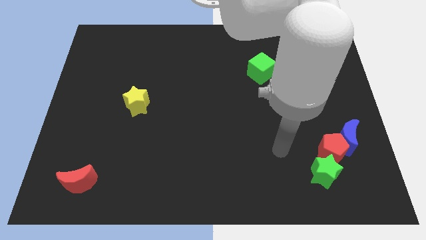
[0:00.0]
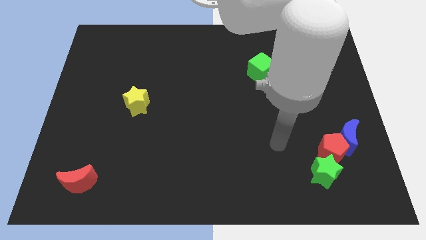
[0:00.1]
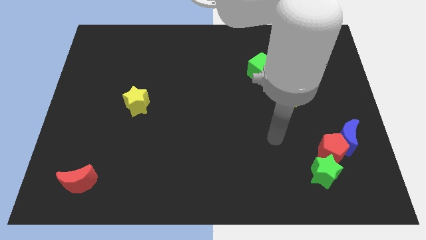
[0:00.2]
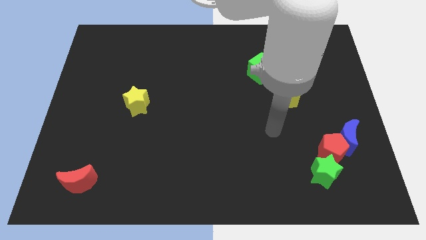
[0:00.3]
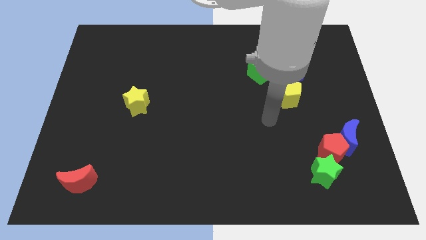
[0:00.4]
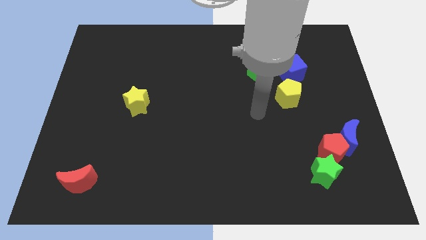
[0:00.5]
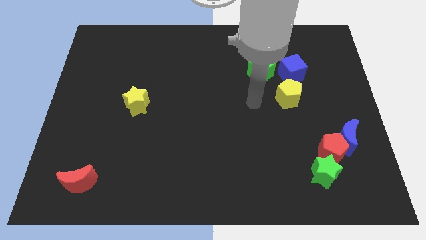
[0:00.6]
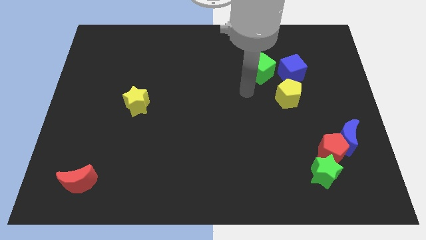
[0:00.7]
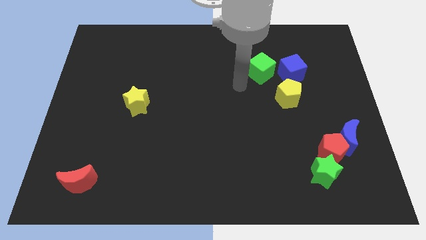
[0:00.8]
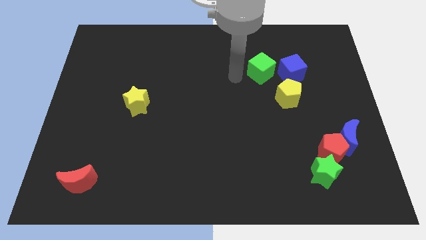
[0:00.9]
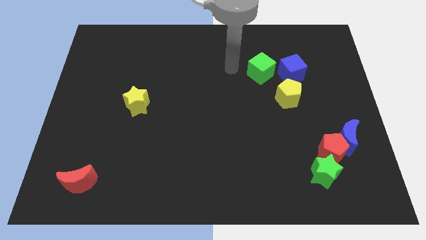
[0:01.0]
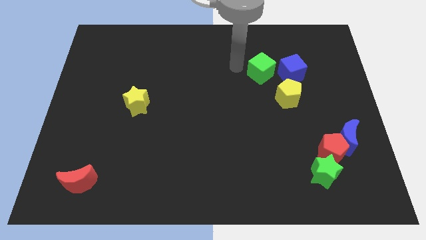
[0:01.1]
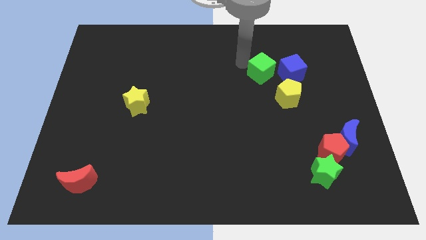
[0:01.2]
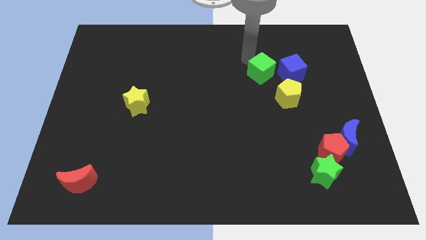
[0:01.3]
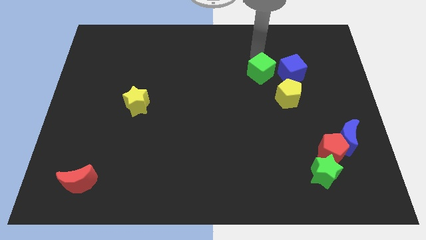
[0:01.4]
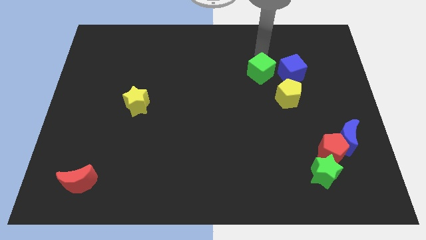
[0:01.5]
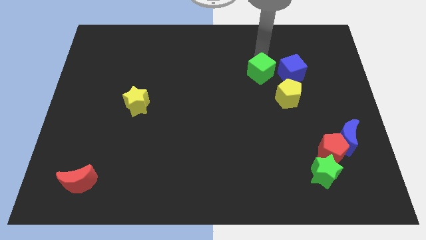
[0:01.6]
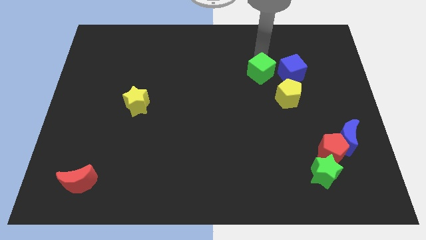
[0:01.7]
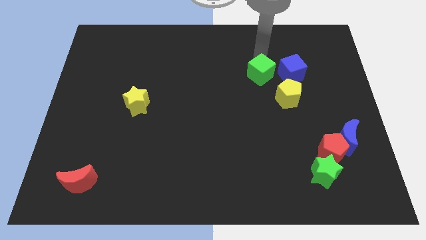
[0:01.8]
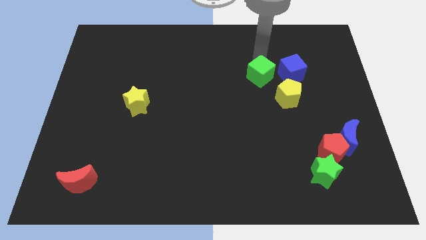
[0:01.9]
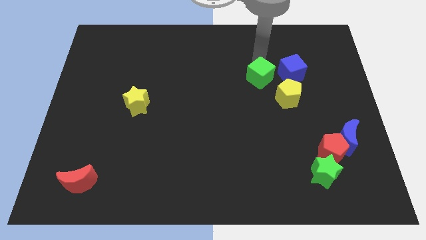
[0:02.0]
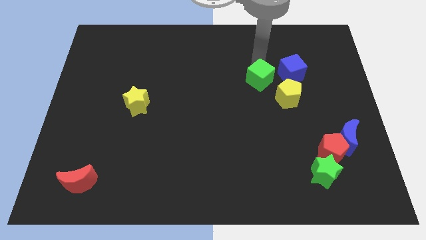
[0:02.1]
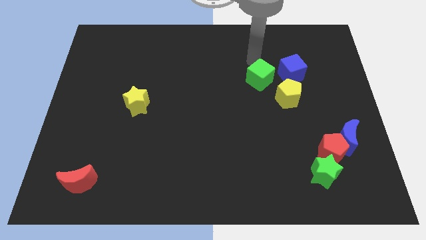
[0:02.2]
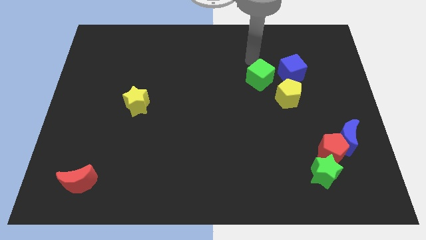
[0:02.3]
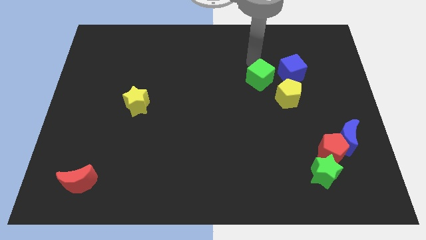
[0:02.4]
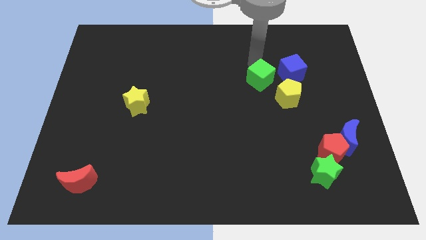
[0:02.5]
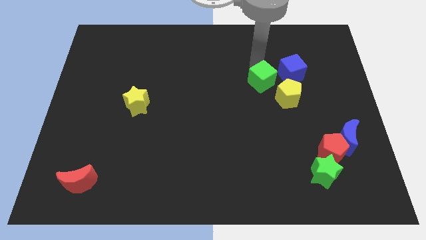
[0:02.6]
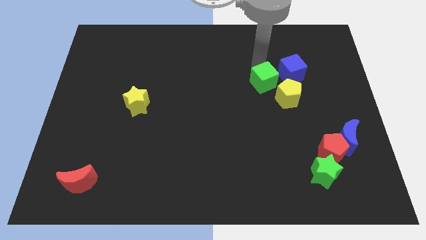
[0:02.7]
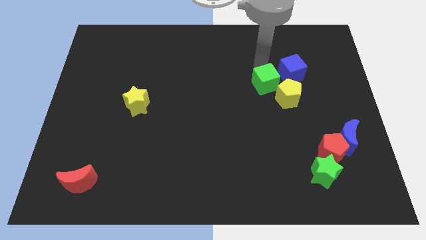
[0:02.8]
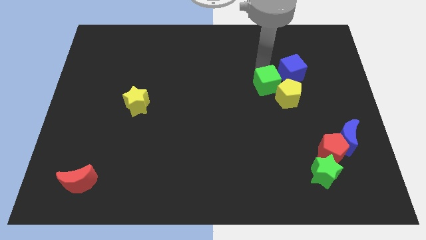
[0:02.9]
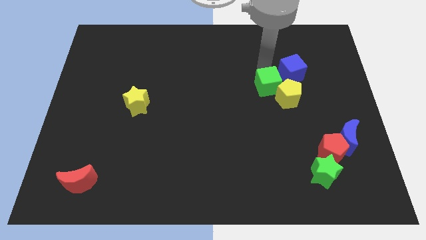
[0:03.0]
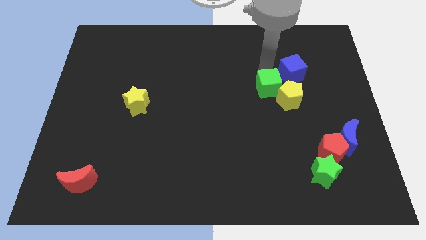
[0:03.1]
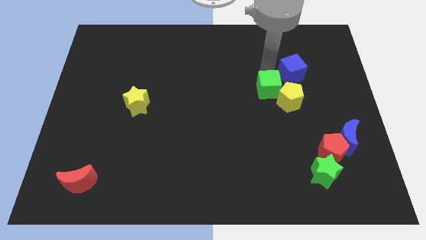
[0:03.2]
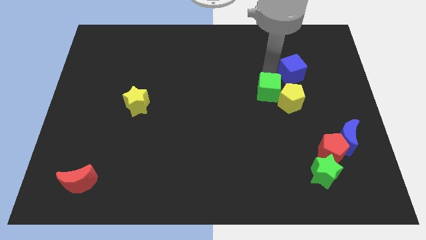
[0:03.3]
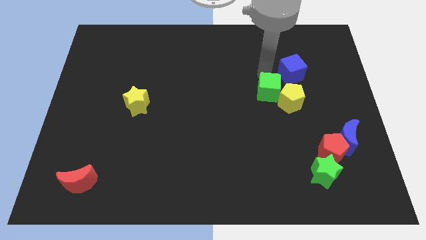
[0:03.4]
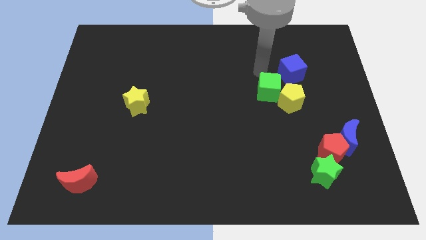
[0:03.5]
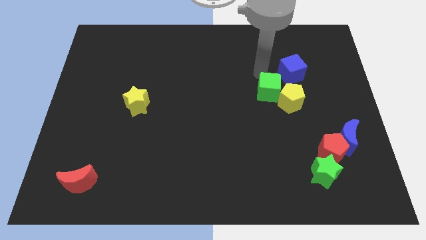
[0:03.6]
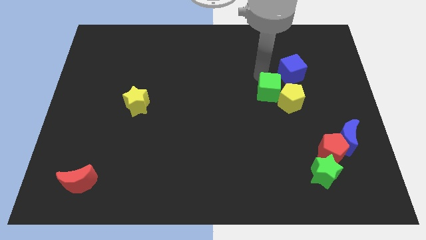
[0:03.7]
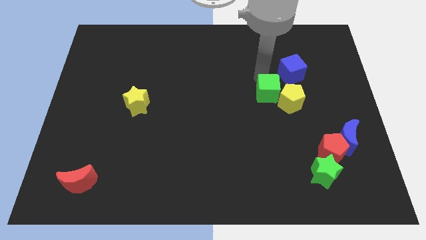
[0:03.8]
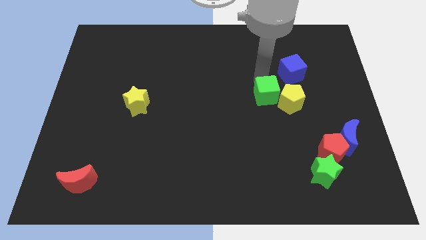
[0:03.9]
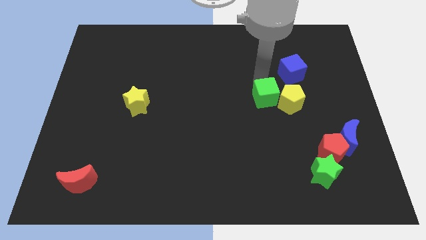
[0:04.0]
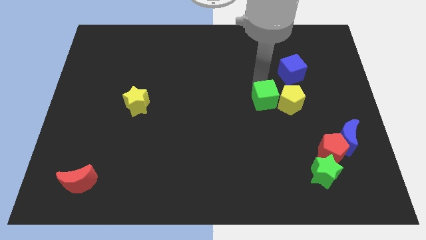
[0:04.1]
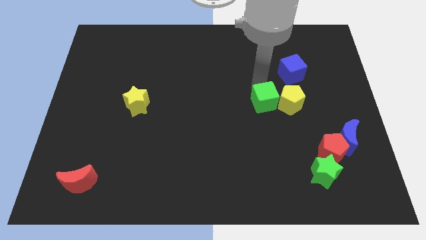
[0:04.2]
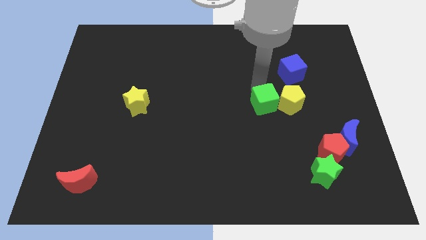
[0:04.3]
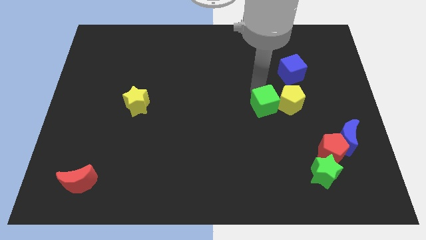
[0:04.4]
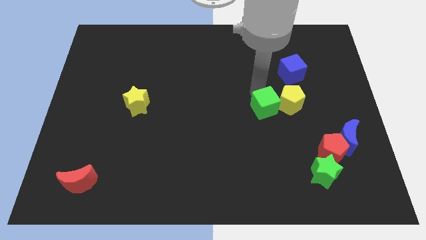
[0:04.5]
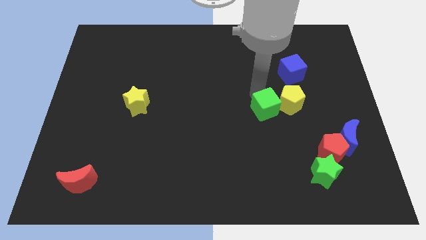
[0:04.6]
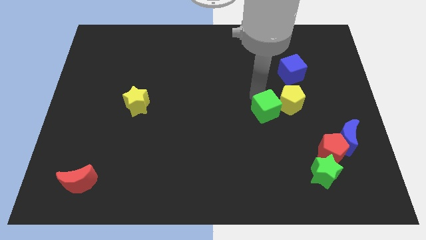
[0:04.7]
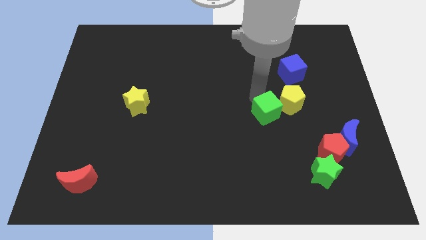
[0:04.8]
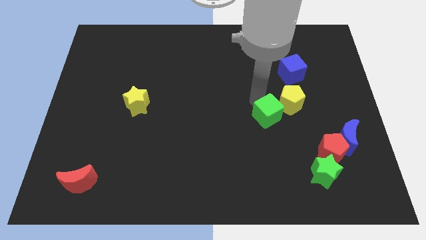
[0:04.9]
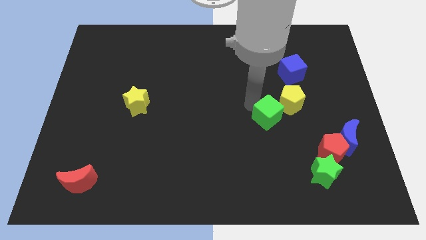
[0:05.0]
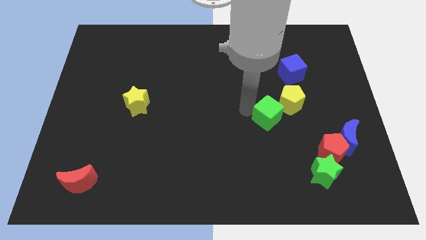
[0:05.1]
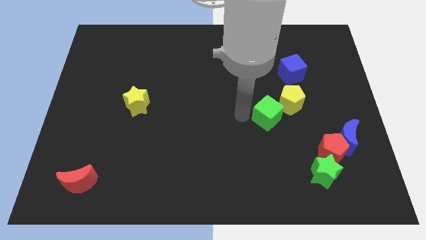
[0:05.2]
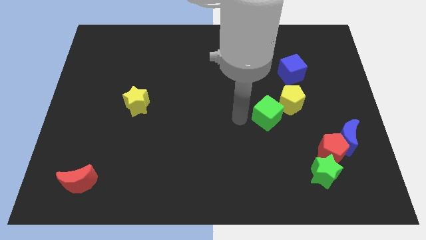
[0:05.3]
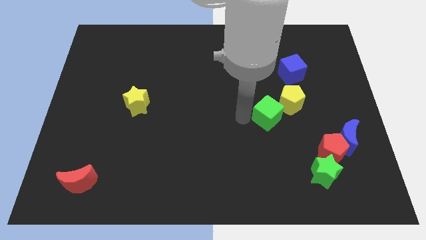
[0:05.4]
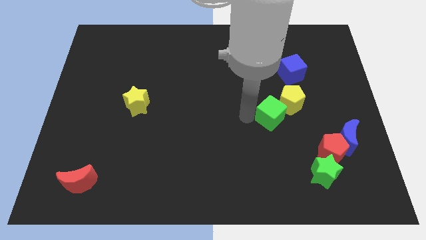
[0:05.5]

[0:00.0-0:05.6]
slightly move the green cube down and right diagonally

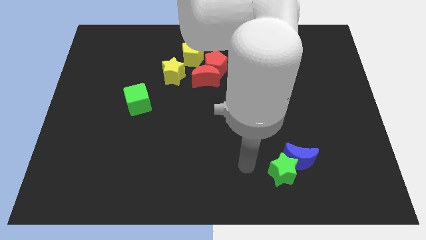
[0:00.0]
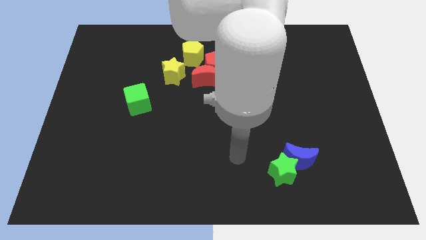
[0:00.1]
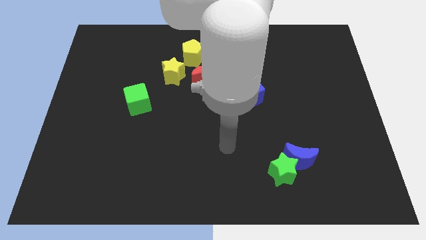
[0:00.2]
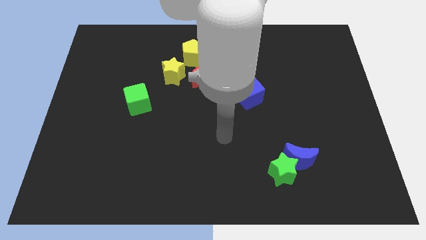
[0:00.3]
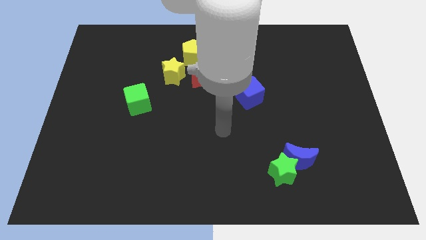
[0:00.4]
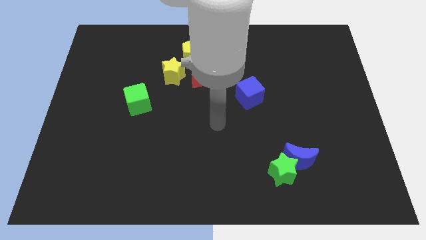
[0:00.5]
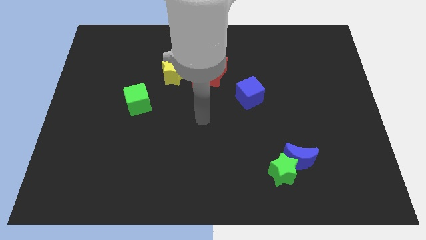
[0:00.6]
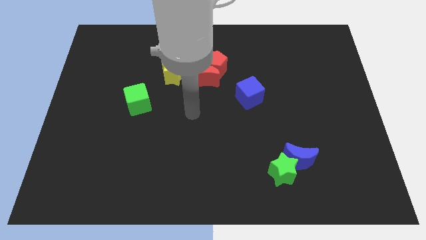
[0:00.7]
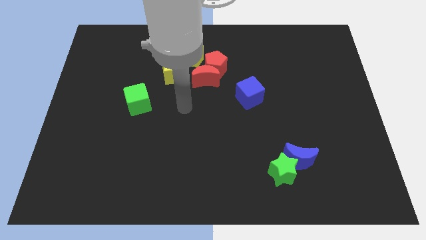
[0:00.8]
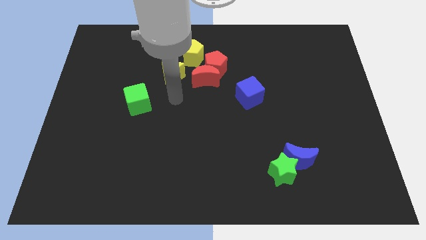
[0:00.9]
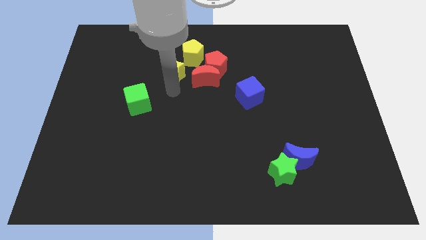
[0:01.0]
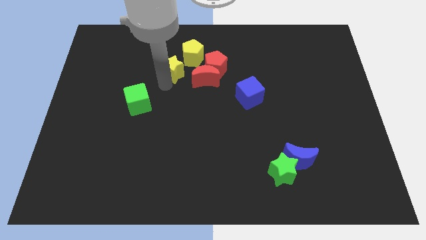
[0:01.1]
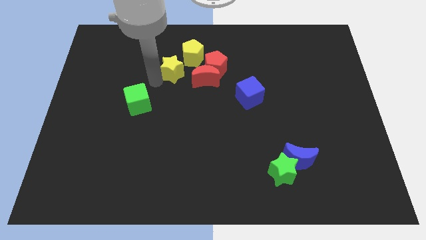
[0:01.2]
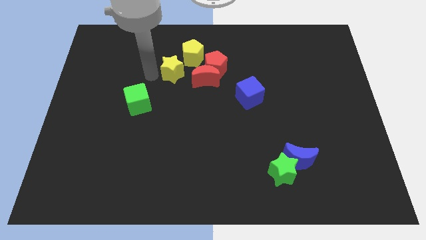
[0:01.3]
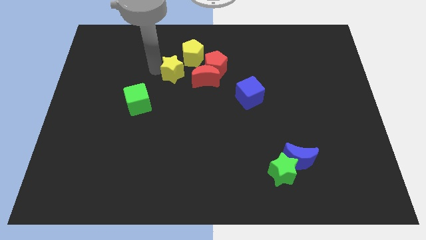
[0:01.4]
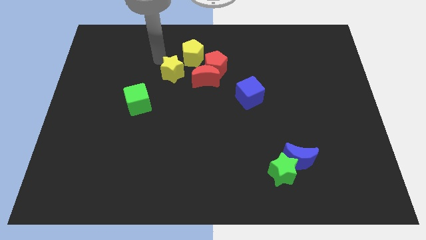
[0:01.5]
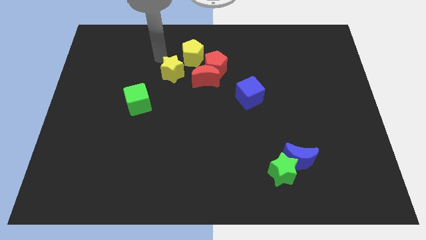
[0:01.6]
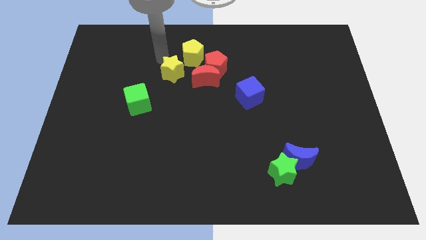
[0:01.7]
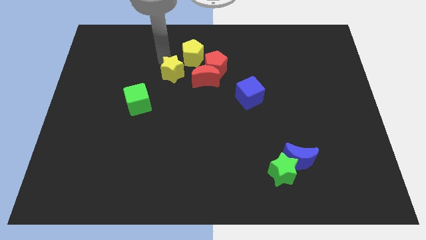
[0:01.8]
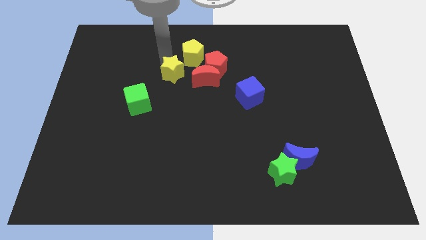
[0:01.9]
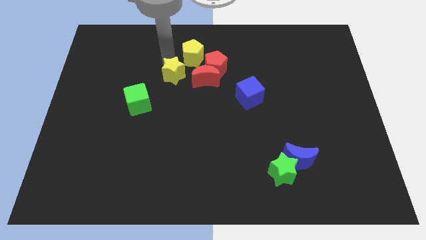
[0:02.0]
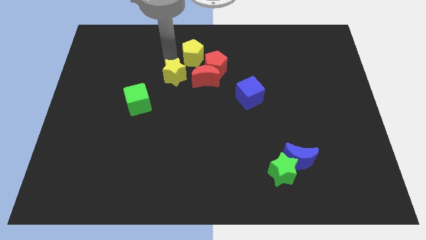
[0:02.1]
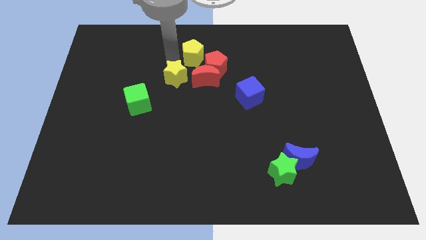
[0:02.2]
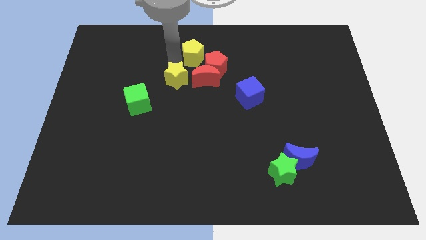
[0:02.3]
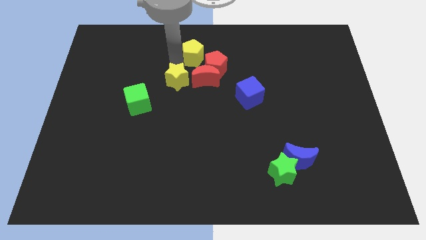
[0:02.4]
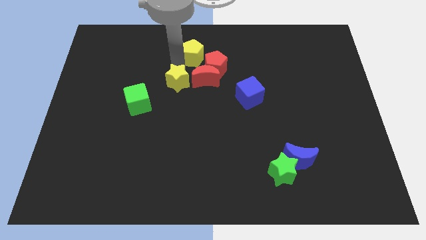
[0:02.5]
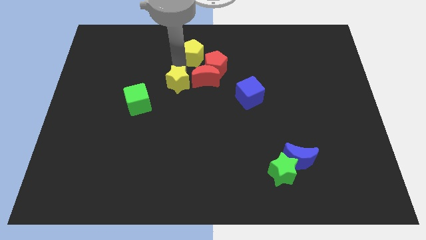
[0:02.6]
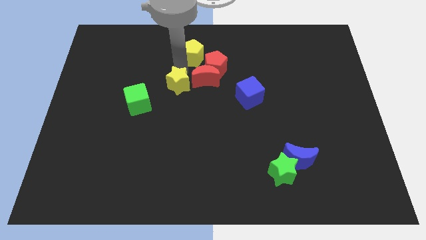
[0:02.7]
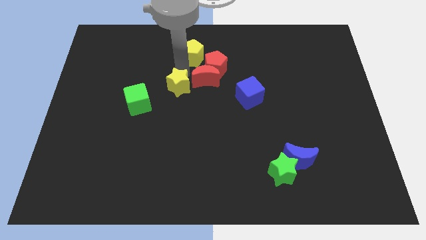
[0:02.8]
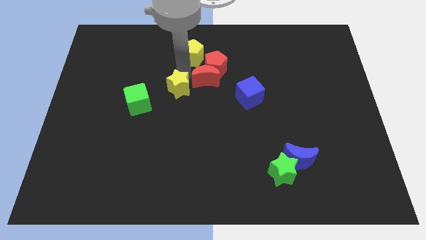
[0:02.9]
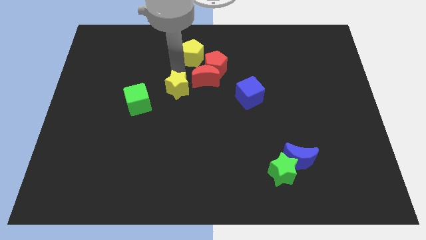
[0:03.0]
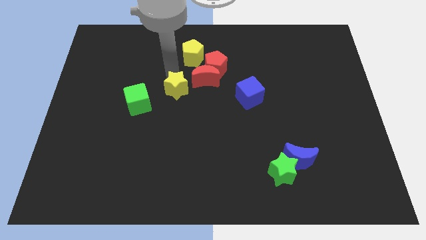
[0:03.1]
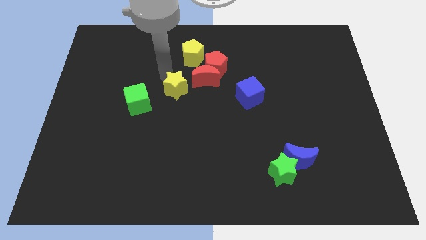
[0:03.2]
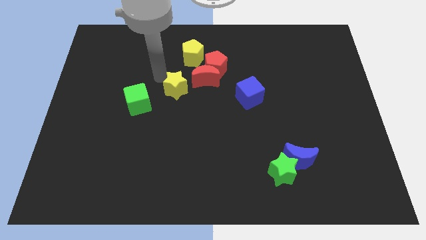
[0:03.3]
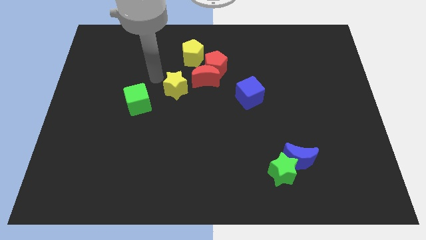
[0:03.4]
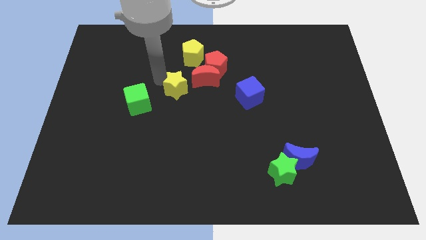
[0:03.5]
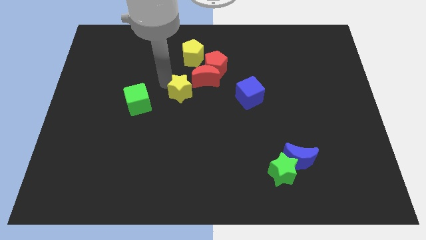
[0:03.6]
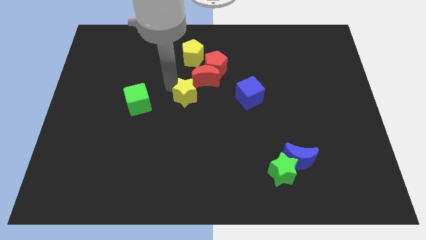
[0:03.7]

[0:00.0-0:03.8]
slightly move the yellow star down and to the right diagonally
